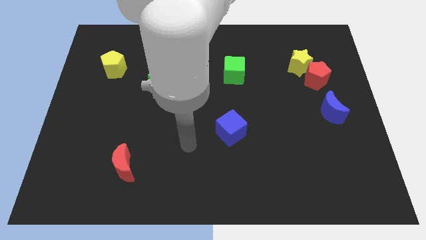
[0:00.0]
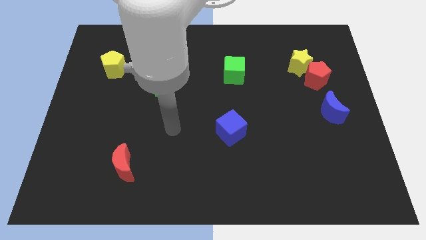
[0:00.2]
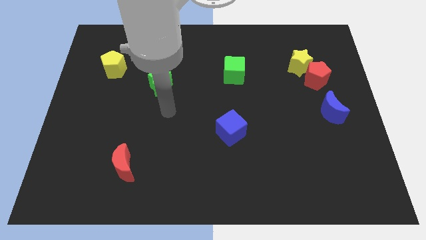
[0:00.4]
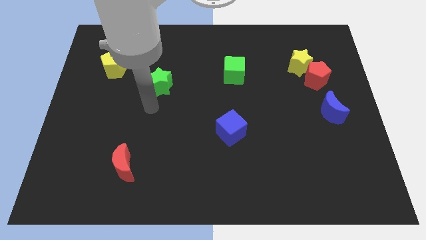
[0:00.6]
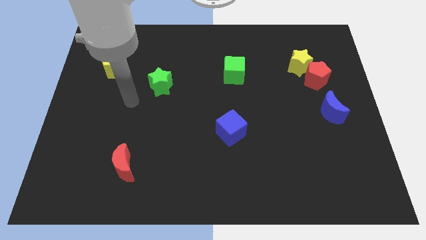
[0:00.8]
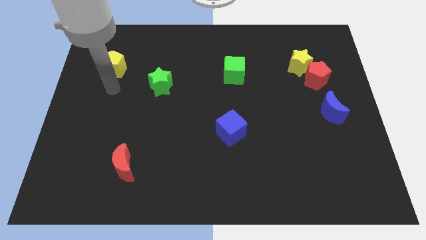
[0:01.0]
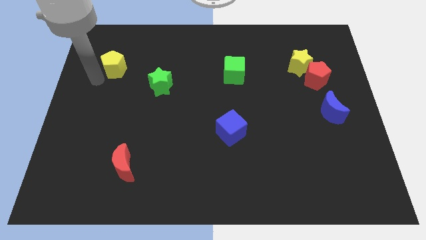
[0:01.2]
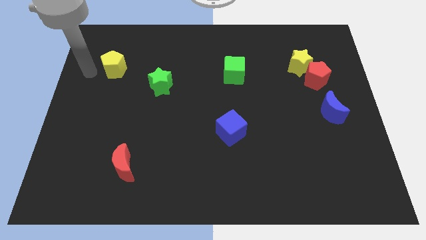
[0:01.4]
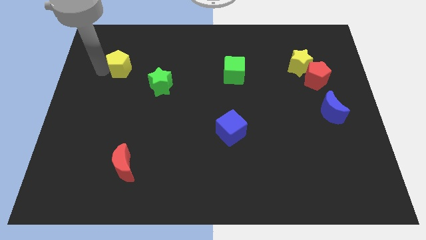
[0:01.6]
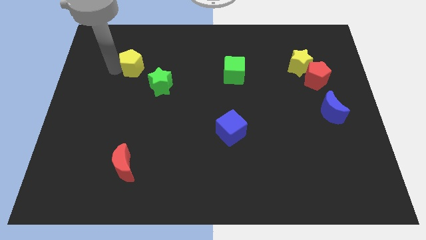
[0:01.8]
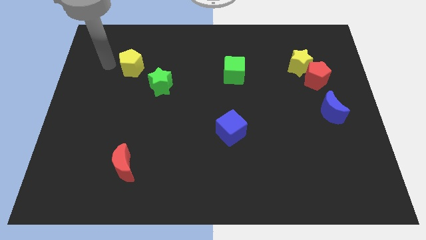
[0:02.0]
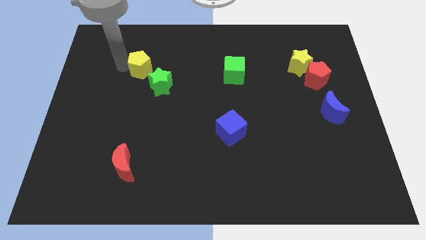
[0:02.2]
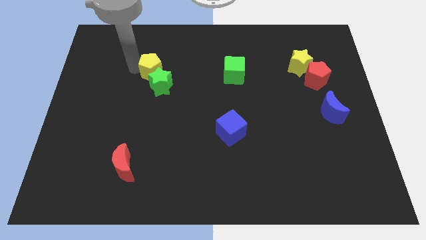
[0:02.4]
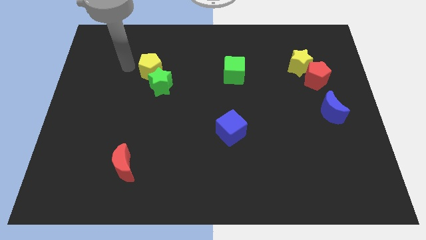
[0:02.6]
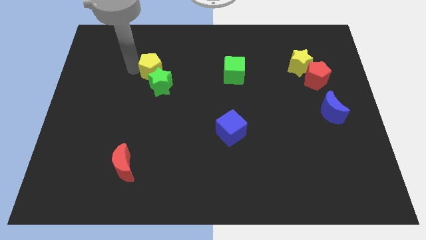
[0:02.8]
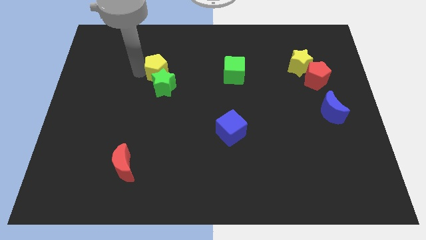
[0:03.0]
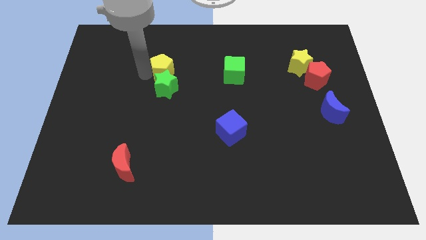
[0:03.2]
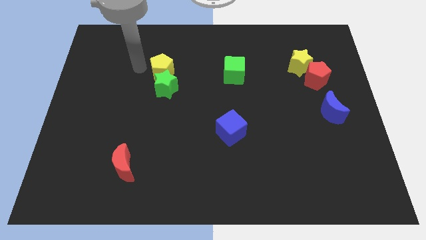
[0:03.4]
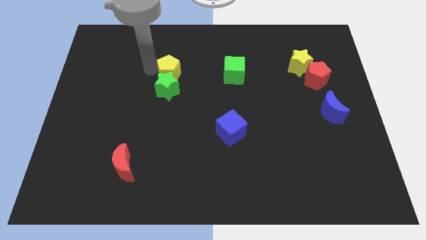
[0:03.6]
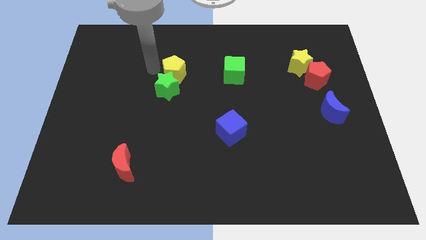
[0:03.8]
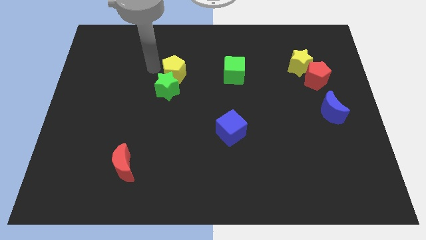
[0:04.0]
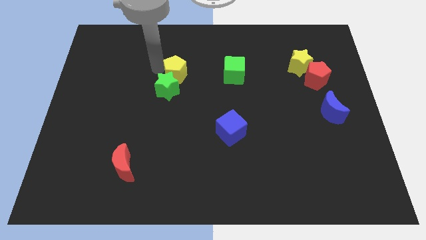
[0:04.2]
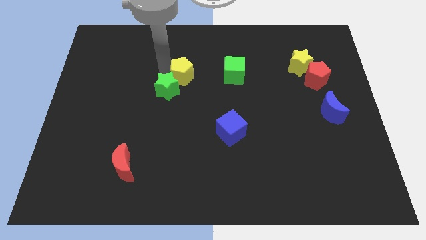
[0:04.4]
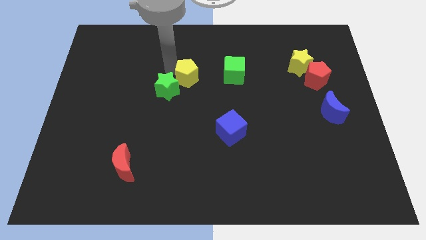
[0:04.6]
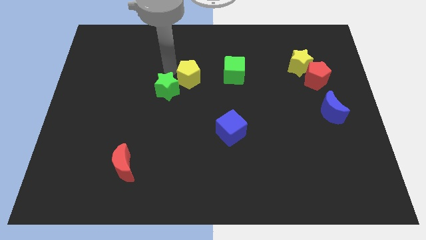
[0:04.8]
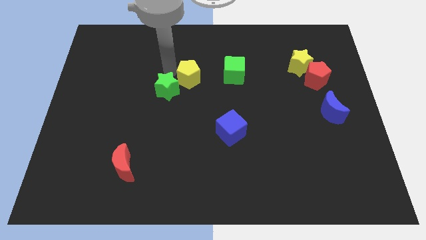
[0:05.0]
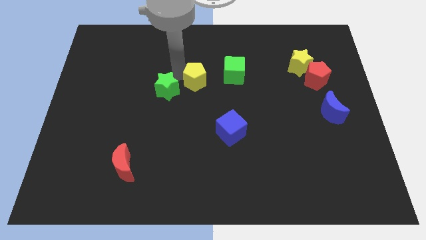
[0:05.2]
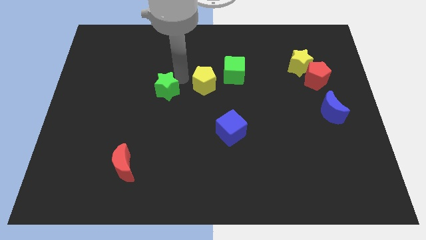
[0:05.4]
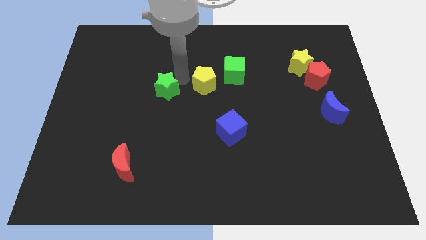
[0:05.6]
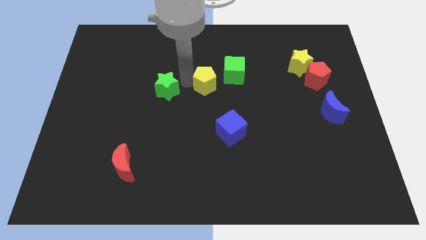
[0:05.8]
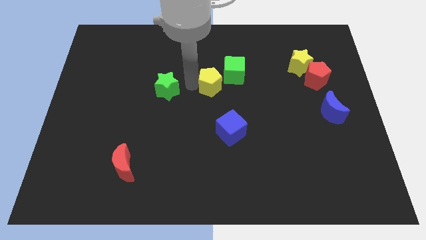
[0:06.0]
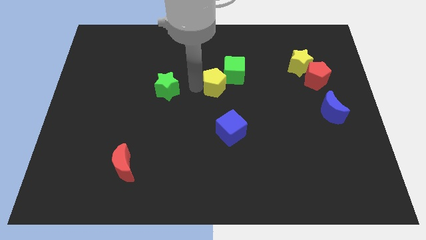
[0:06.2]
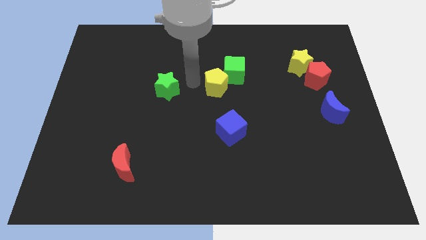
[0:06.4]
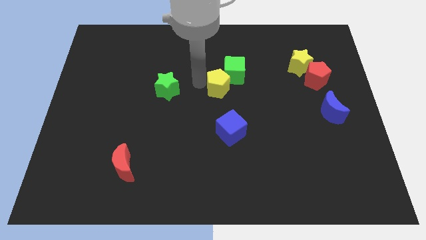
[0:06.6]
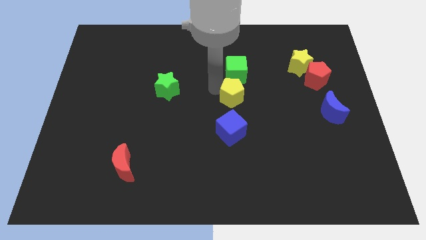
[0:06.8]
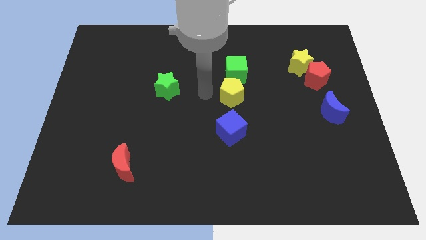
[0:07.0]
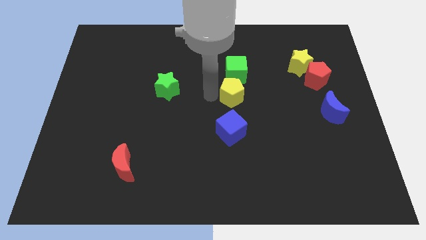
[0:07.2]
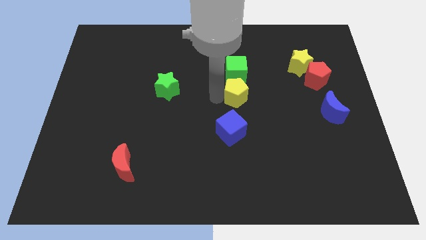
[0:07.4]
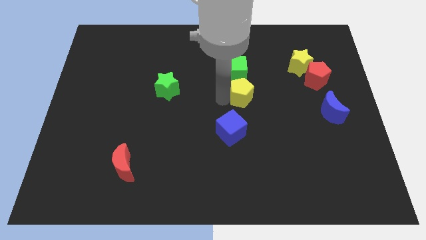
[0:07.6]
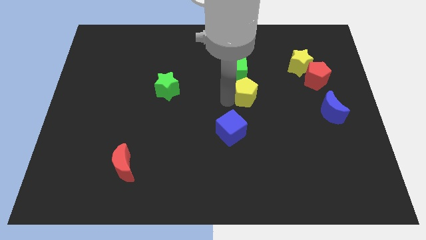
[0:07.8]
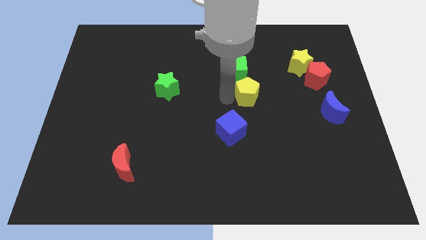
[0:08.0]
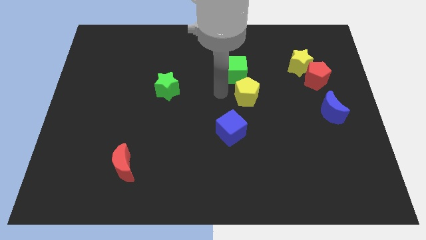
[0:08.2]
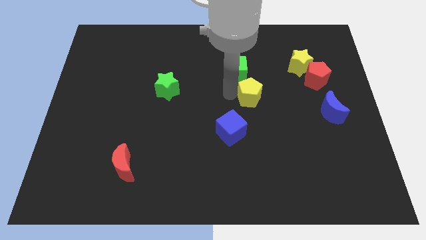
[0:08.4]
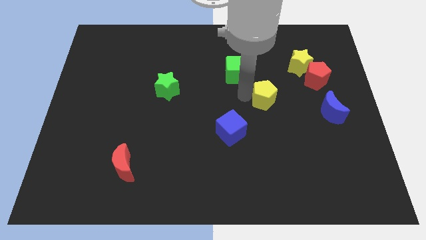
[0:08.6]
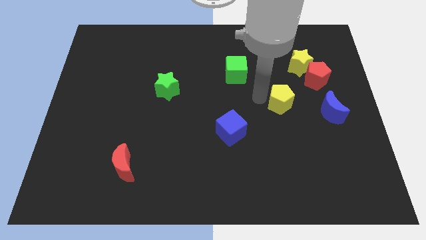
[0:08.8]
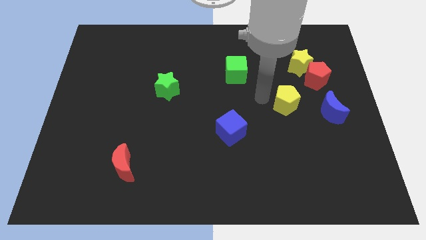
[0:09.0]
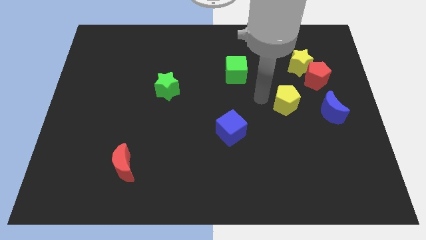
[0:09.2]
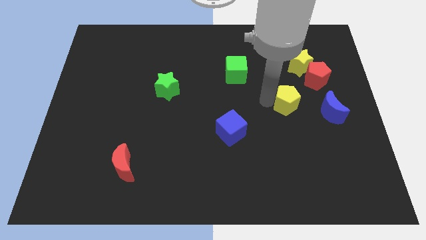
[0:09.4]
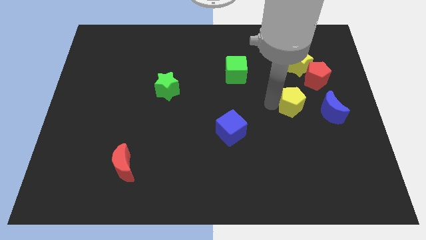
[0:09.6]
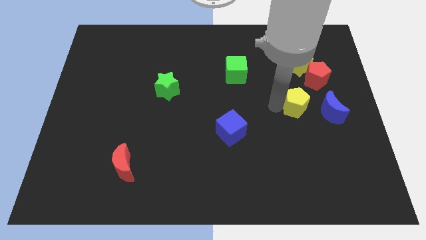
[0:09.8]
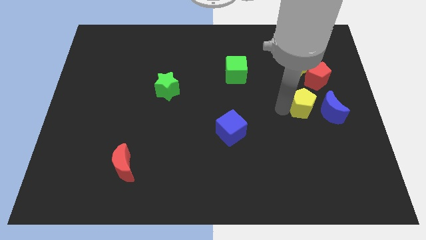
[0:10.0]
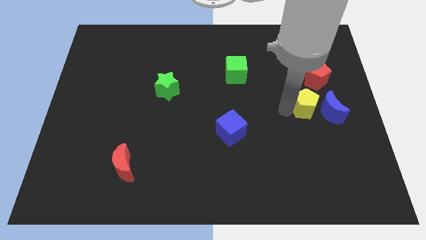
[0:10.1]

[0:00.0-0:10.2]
slide the yellow pentagon to the blue moon

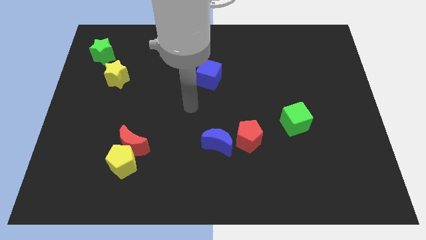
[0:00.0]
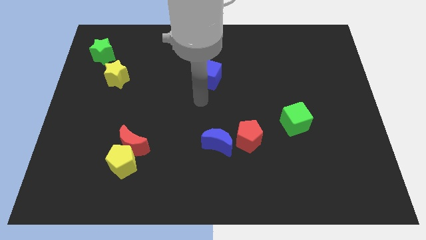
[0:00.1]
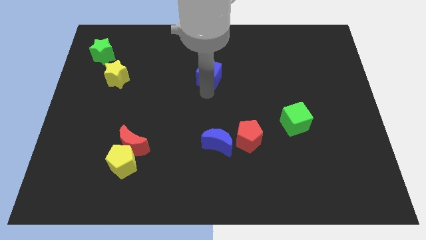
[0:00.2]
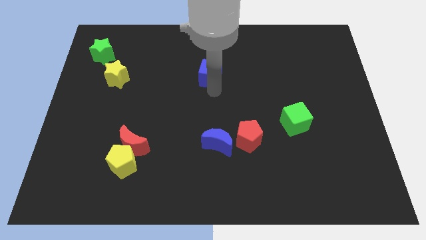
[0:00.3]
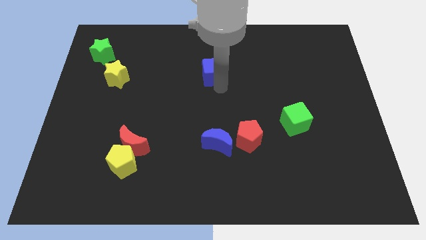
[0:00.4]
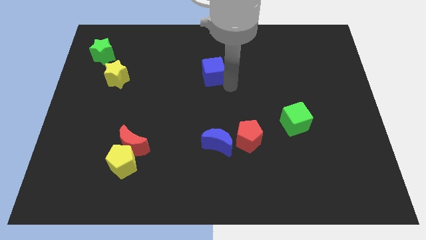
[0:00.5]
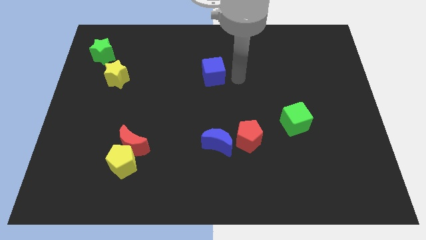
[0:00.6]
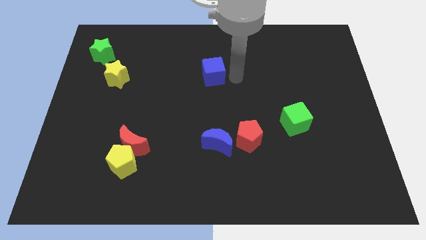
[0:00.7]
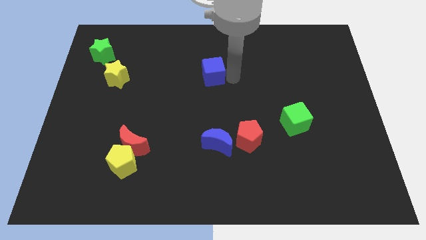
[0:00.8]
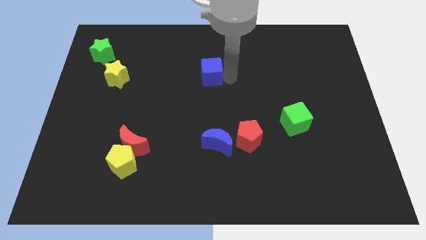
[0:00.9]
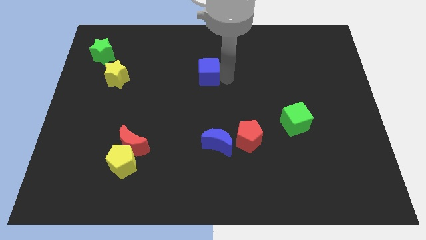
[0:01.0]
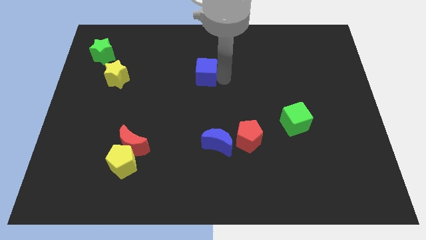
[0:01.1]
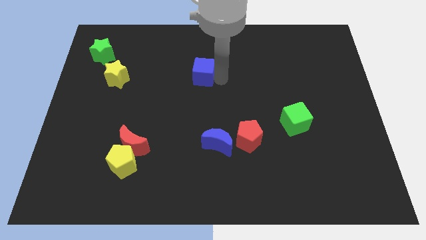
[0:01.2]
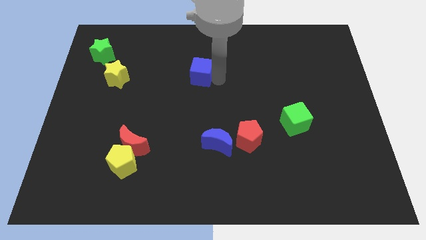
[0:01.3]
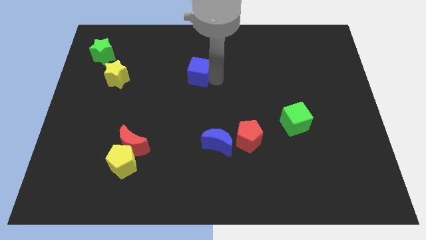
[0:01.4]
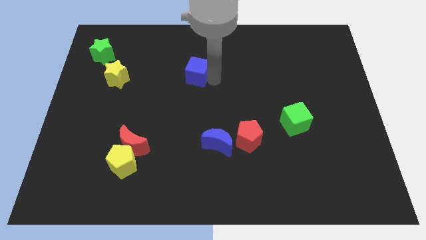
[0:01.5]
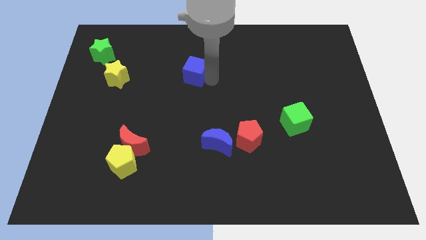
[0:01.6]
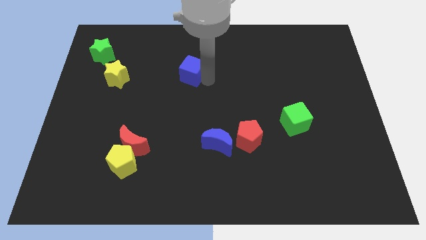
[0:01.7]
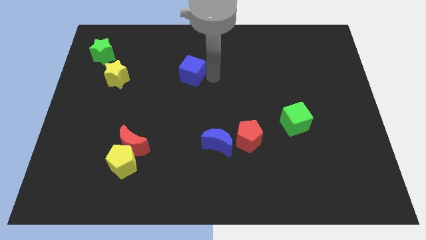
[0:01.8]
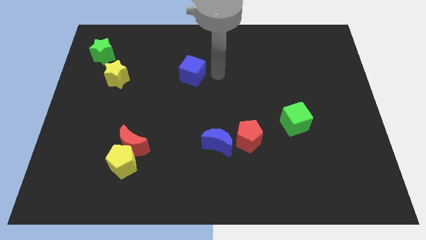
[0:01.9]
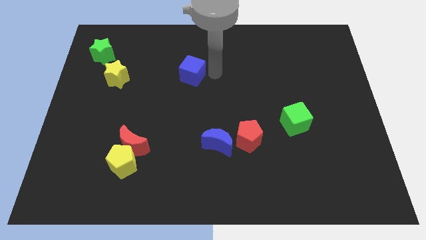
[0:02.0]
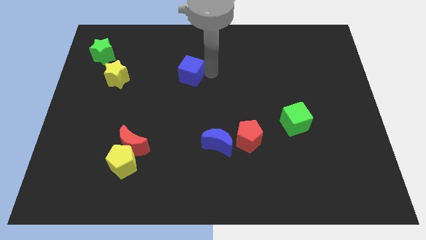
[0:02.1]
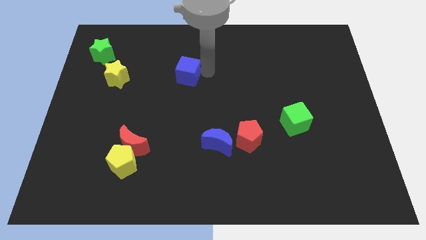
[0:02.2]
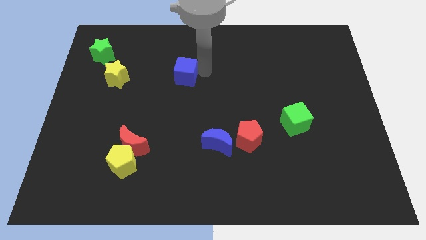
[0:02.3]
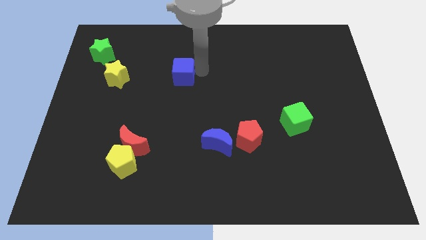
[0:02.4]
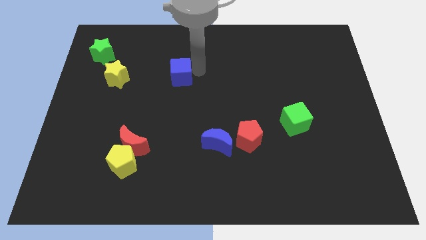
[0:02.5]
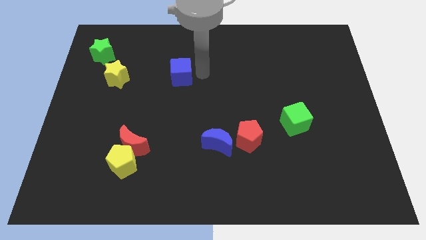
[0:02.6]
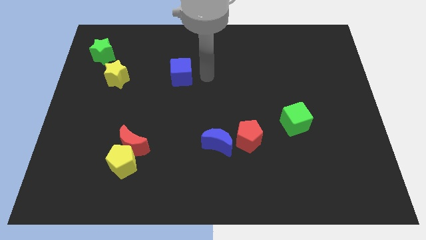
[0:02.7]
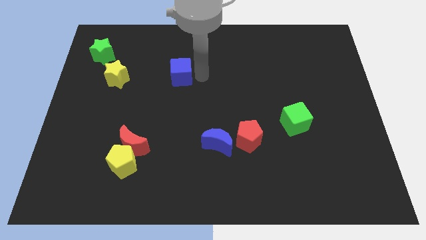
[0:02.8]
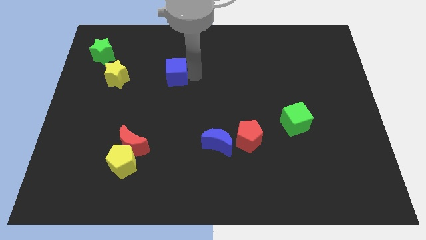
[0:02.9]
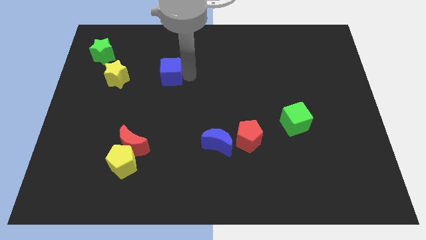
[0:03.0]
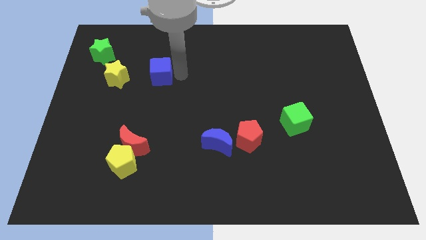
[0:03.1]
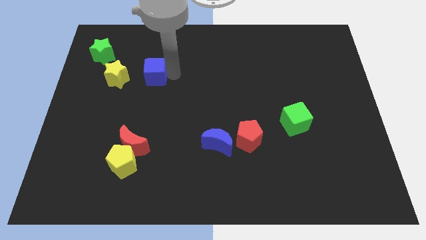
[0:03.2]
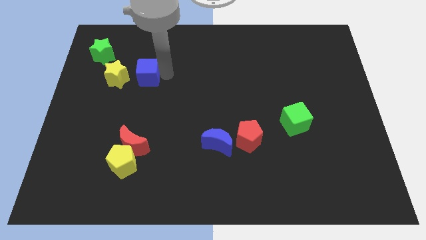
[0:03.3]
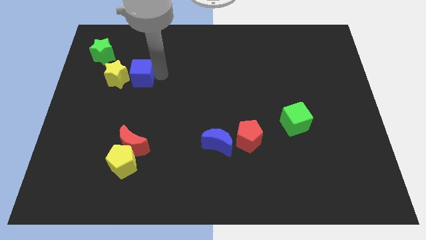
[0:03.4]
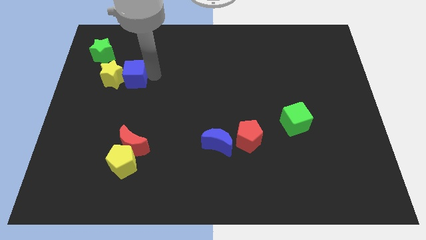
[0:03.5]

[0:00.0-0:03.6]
put the blue cube towards the yellow star
